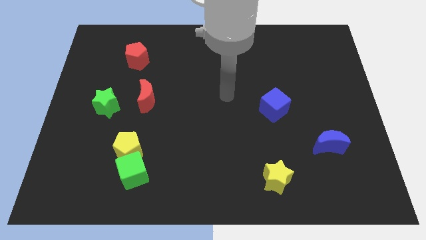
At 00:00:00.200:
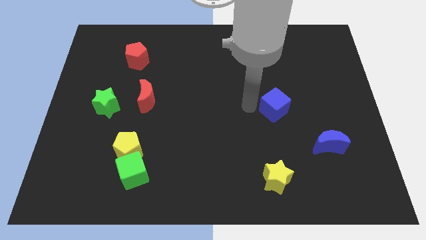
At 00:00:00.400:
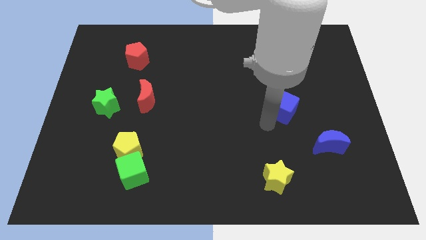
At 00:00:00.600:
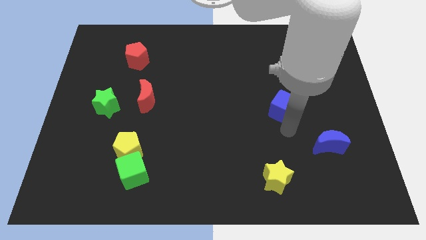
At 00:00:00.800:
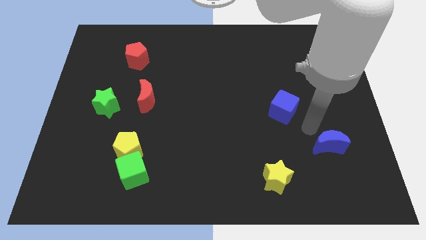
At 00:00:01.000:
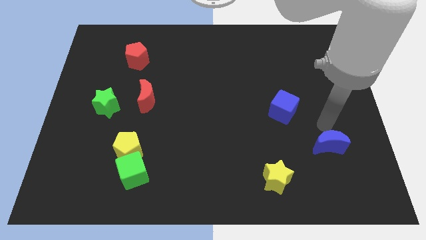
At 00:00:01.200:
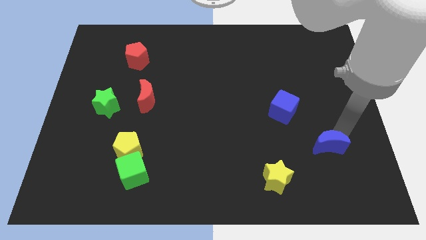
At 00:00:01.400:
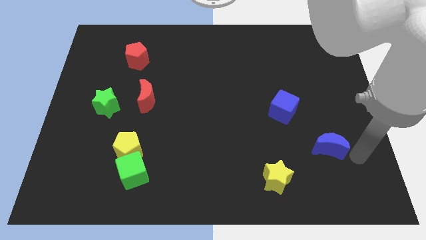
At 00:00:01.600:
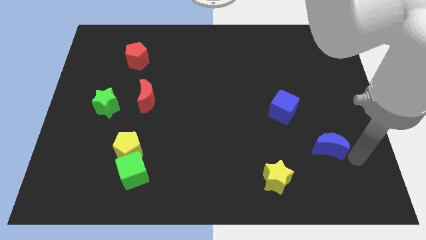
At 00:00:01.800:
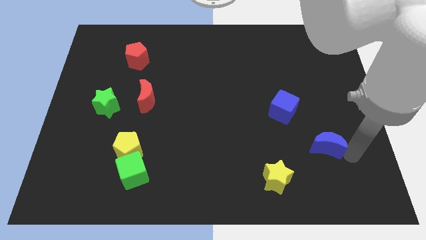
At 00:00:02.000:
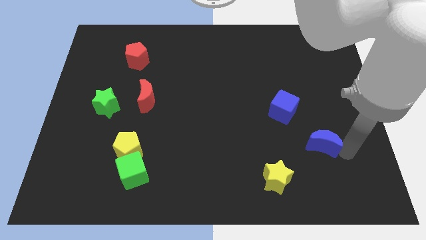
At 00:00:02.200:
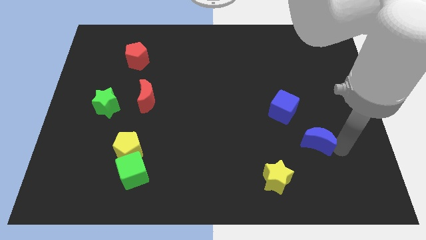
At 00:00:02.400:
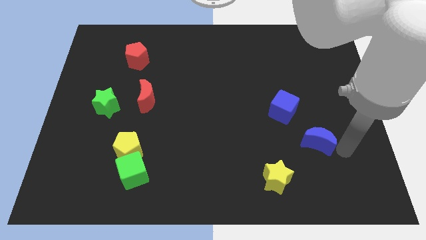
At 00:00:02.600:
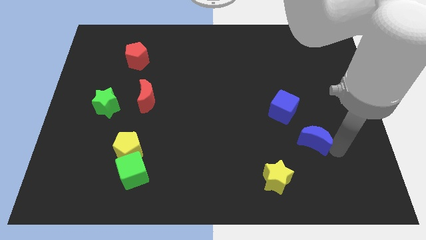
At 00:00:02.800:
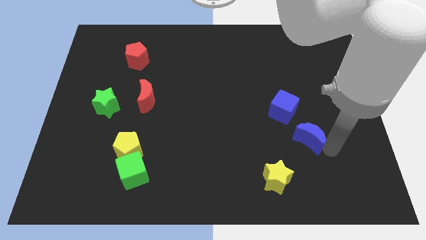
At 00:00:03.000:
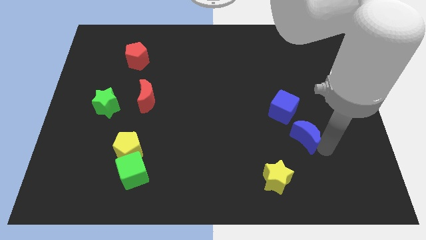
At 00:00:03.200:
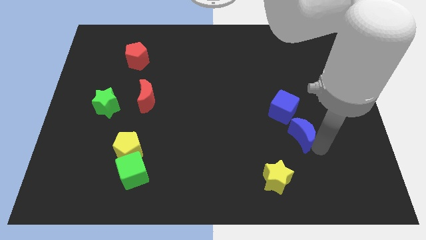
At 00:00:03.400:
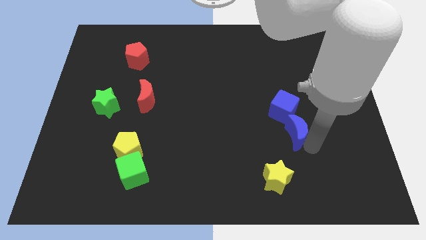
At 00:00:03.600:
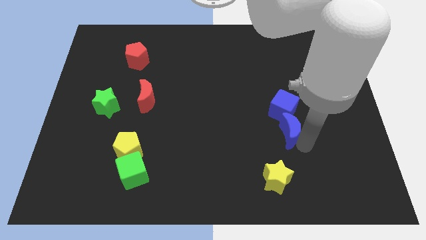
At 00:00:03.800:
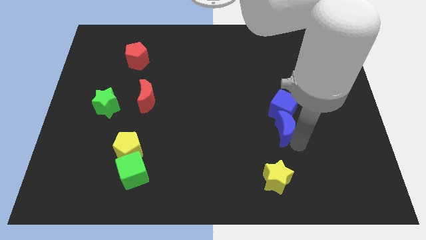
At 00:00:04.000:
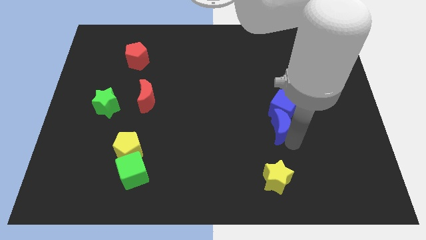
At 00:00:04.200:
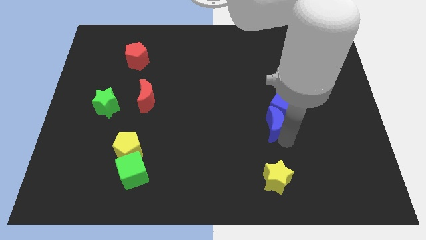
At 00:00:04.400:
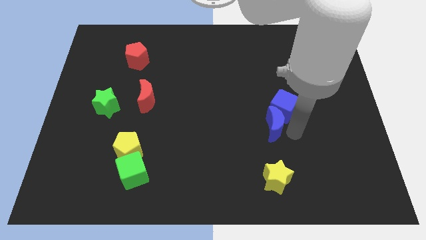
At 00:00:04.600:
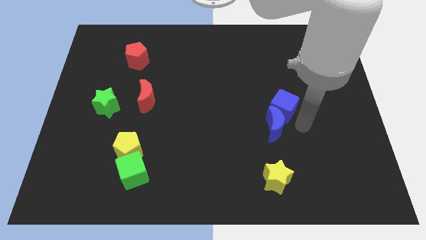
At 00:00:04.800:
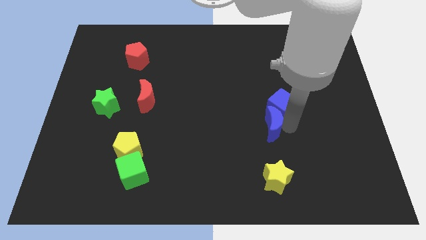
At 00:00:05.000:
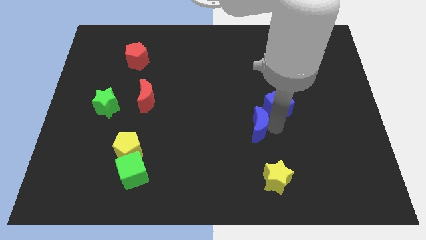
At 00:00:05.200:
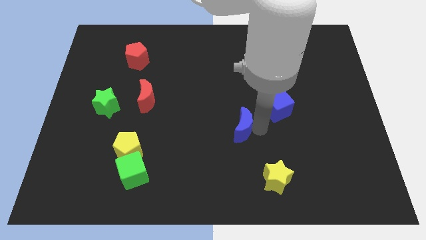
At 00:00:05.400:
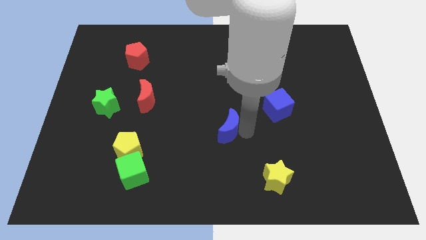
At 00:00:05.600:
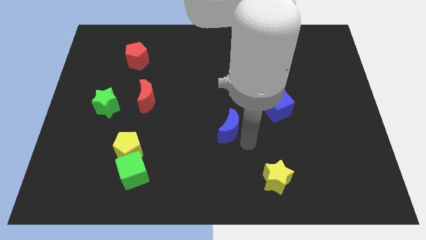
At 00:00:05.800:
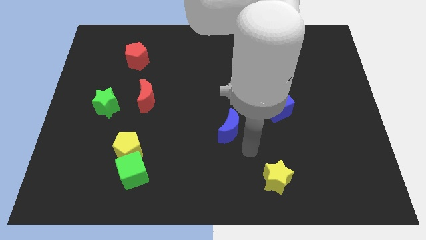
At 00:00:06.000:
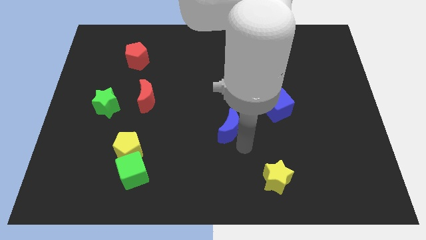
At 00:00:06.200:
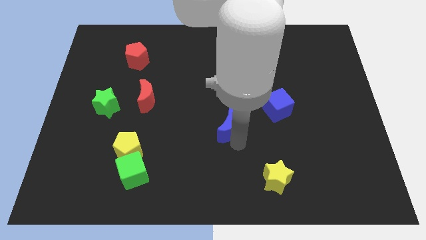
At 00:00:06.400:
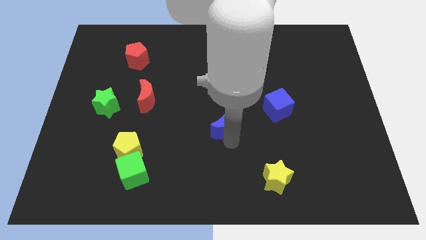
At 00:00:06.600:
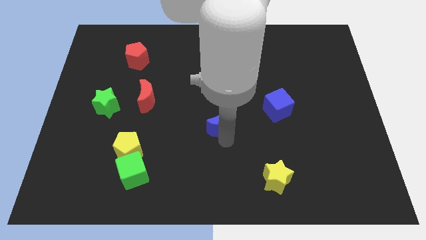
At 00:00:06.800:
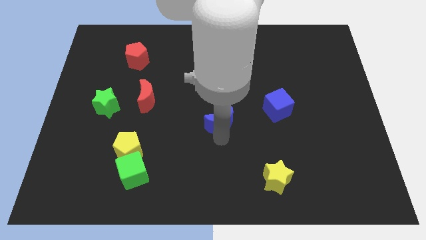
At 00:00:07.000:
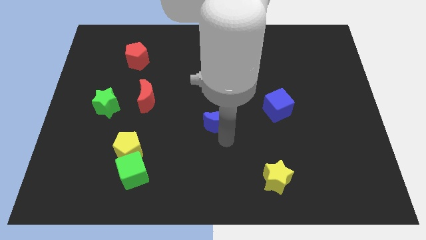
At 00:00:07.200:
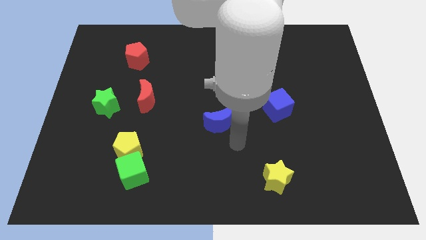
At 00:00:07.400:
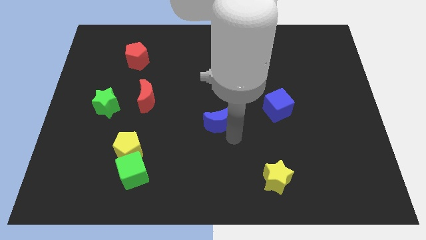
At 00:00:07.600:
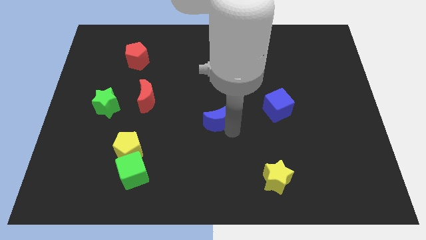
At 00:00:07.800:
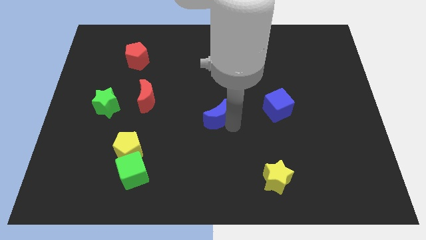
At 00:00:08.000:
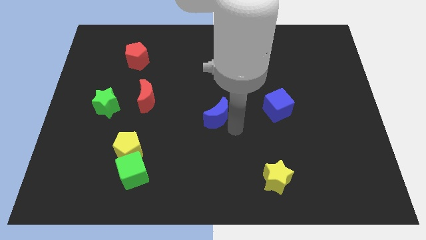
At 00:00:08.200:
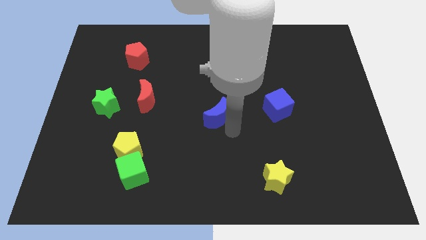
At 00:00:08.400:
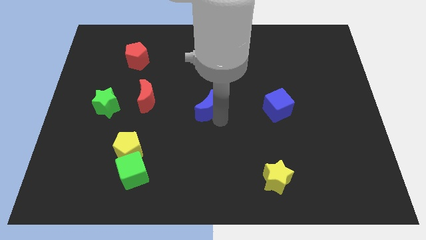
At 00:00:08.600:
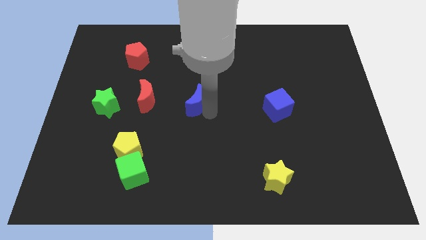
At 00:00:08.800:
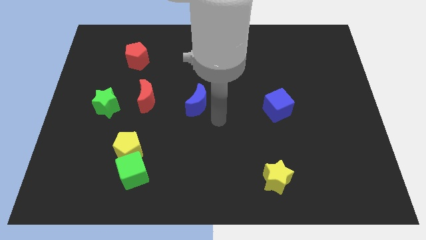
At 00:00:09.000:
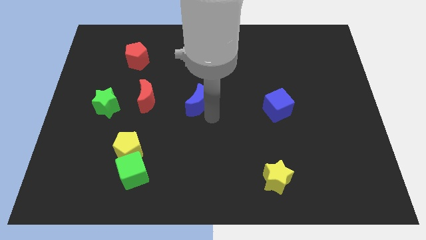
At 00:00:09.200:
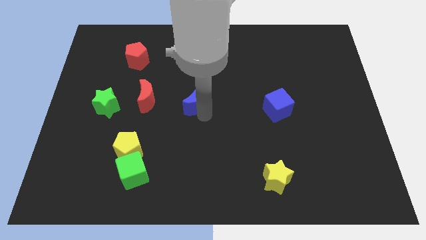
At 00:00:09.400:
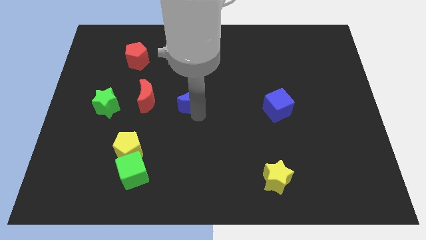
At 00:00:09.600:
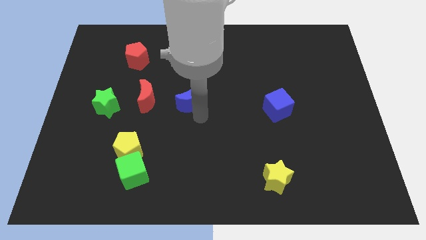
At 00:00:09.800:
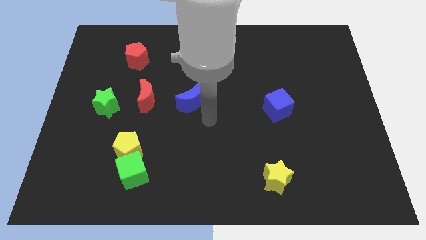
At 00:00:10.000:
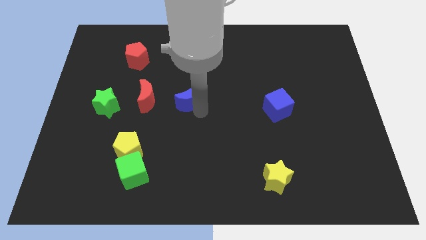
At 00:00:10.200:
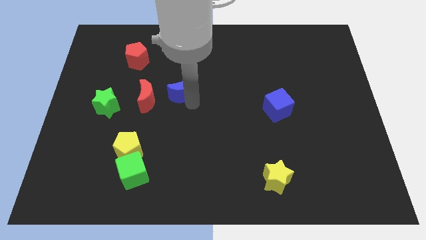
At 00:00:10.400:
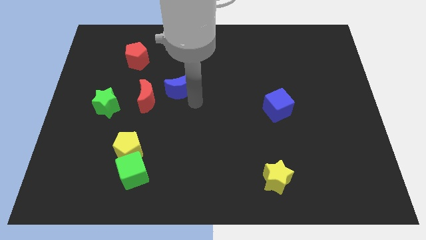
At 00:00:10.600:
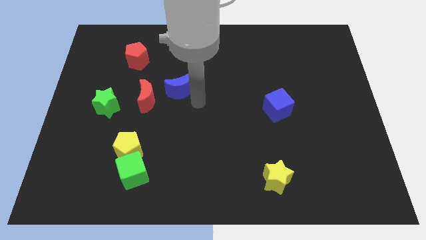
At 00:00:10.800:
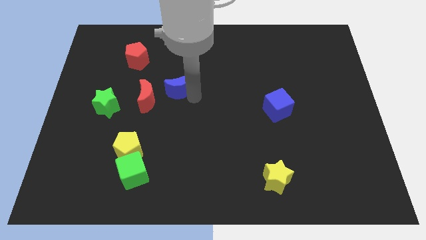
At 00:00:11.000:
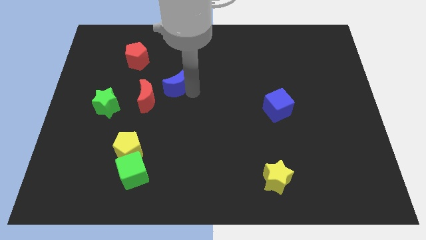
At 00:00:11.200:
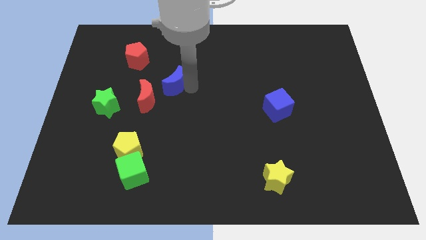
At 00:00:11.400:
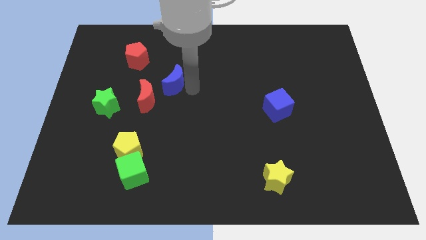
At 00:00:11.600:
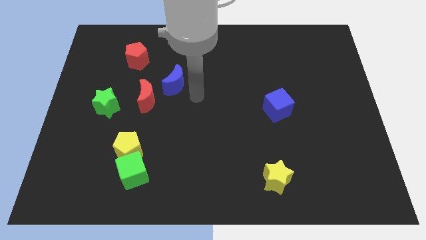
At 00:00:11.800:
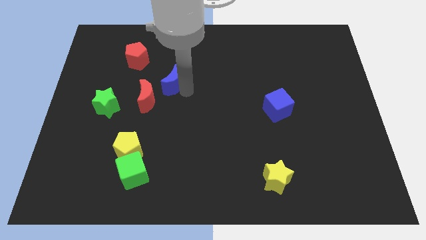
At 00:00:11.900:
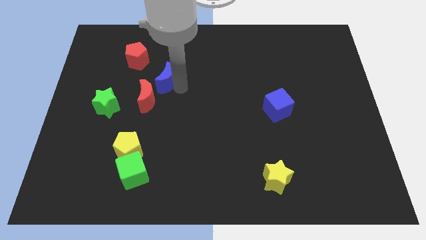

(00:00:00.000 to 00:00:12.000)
move the blue moon diagonally down and to the right of the red pentagon

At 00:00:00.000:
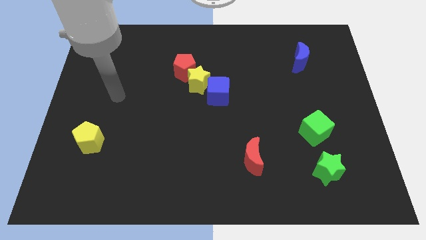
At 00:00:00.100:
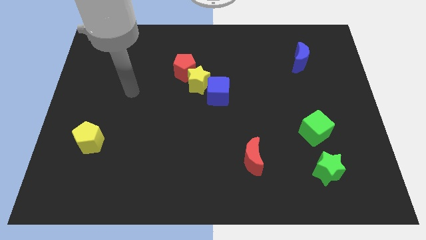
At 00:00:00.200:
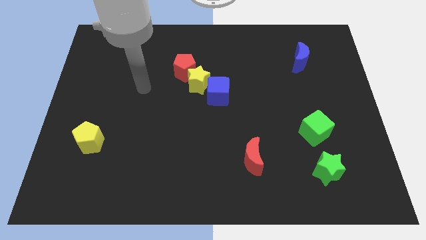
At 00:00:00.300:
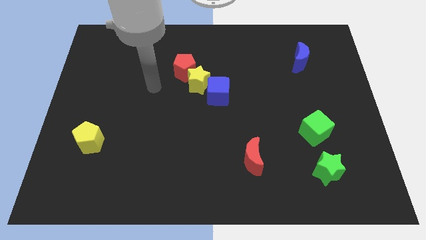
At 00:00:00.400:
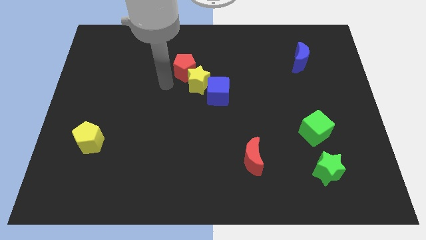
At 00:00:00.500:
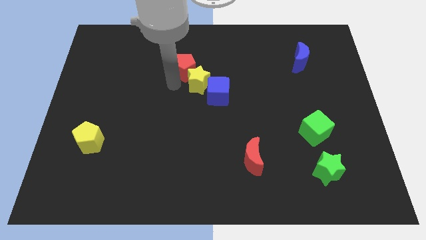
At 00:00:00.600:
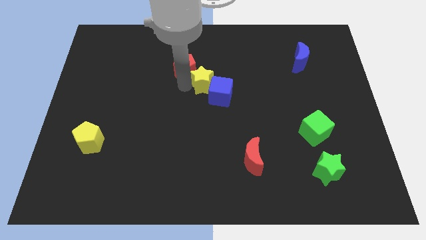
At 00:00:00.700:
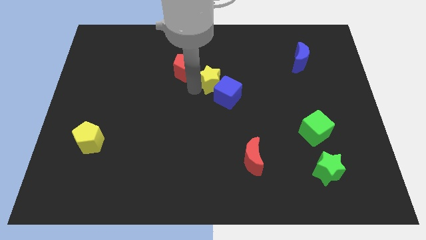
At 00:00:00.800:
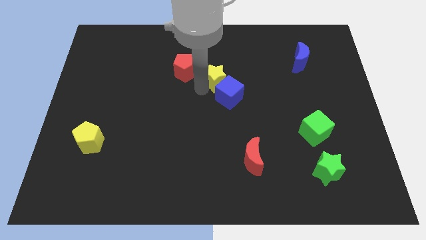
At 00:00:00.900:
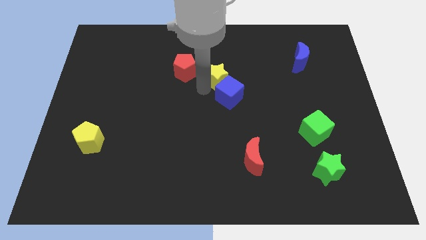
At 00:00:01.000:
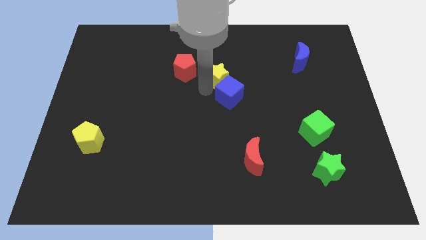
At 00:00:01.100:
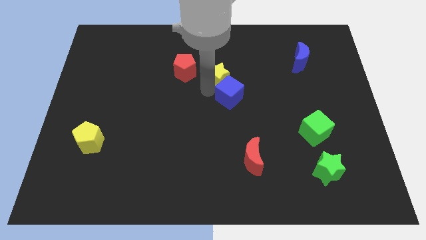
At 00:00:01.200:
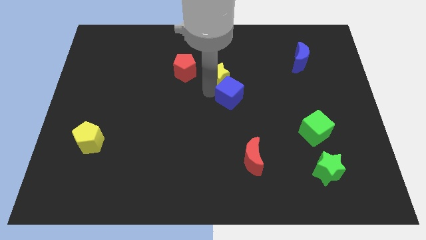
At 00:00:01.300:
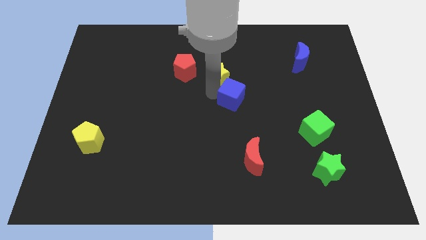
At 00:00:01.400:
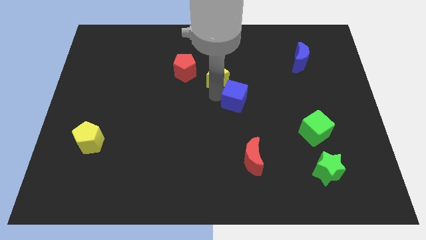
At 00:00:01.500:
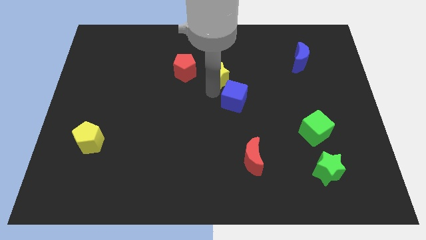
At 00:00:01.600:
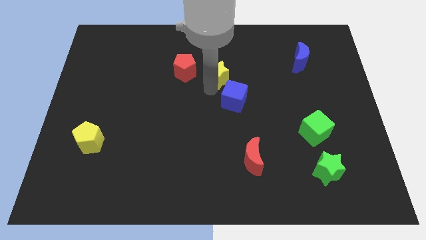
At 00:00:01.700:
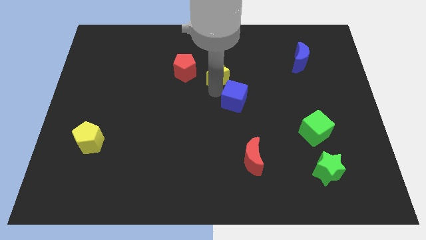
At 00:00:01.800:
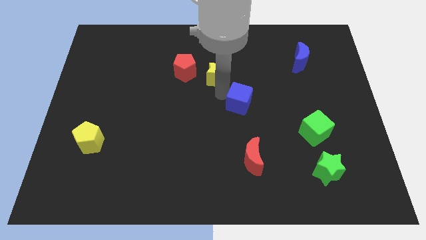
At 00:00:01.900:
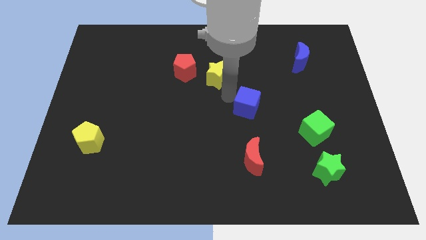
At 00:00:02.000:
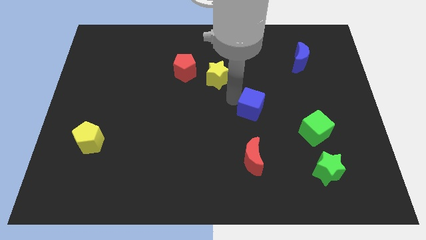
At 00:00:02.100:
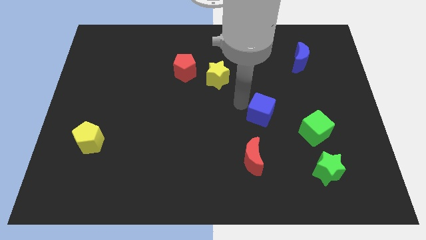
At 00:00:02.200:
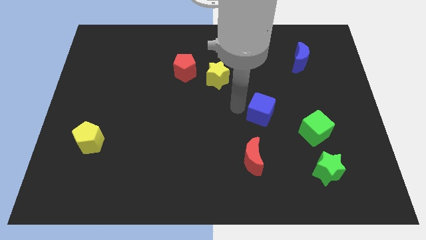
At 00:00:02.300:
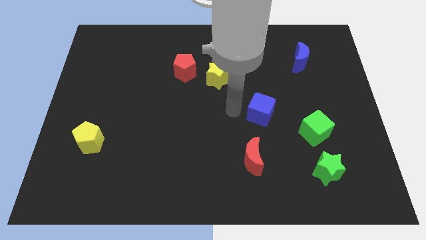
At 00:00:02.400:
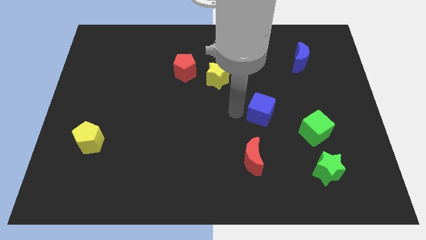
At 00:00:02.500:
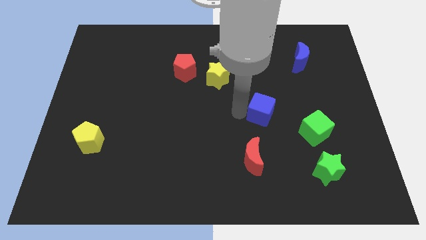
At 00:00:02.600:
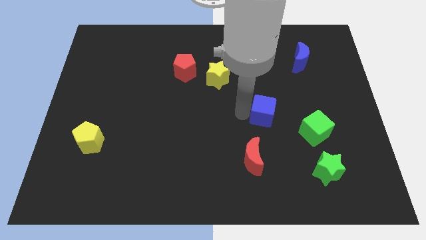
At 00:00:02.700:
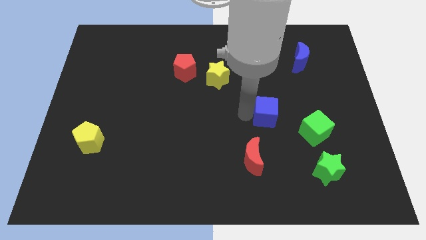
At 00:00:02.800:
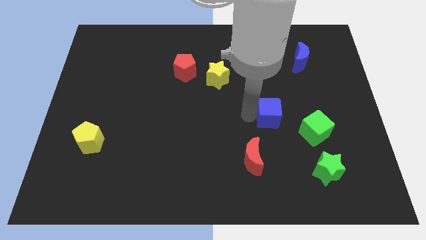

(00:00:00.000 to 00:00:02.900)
move the blue cube diagonally up and to the left of the green cube
